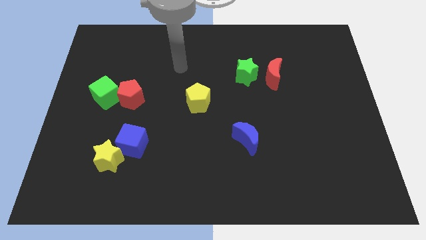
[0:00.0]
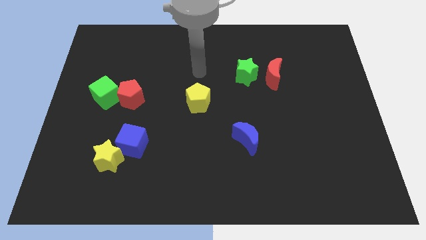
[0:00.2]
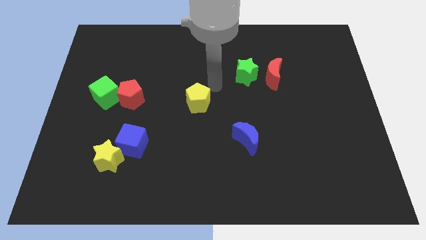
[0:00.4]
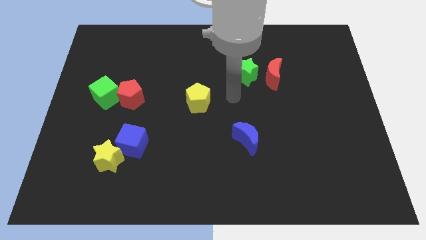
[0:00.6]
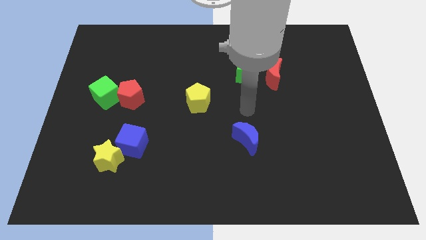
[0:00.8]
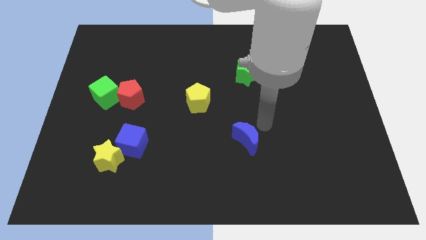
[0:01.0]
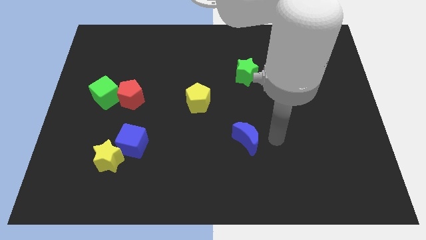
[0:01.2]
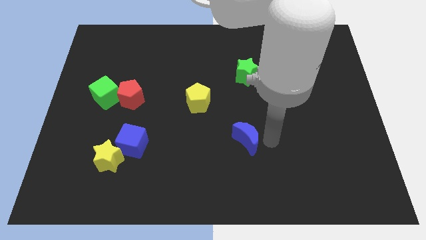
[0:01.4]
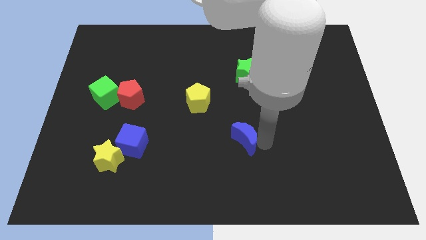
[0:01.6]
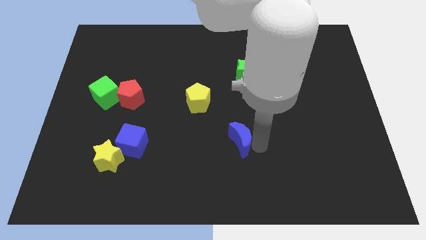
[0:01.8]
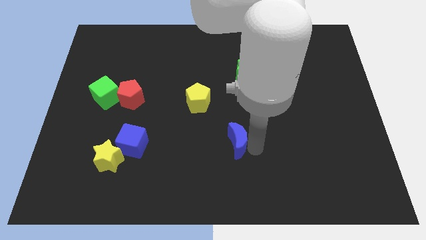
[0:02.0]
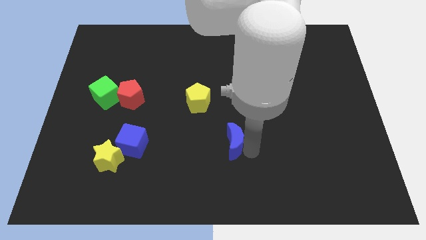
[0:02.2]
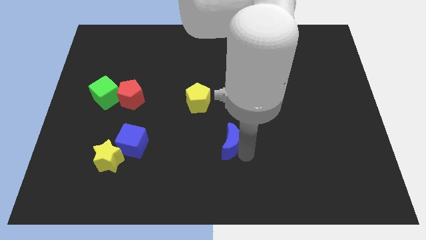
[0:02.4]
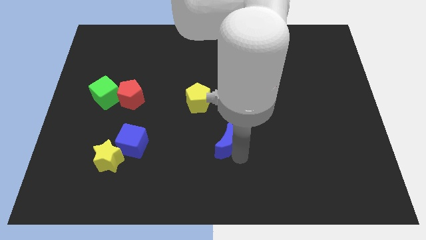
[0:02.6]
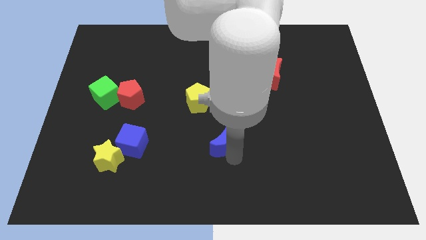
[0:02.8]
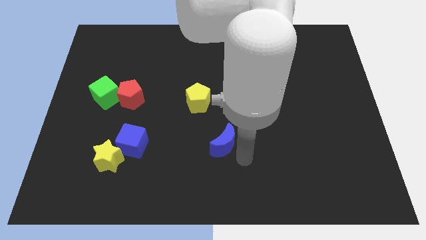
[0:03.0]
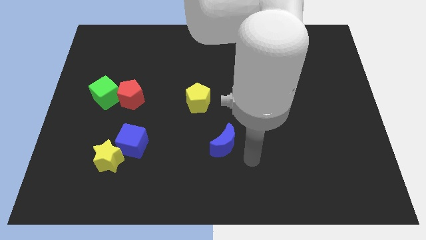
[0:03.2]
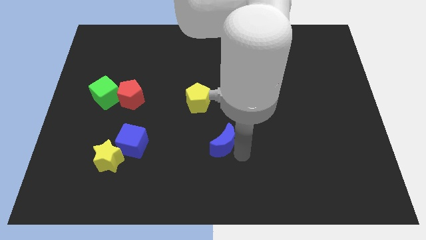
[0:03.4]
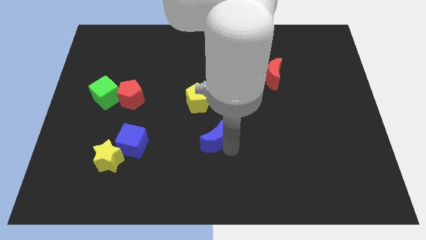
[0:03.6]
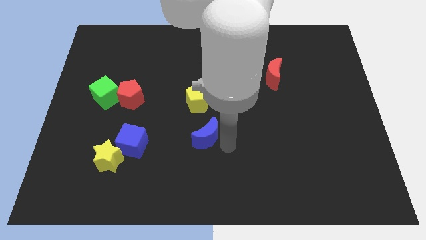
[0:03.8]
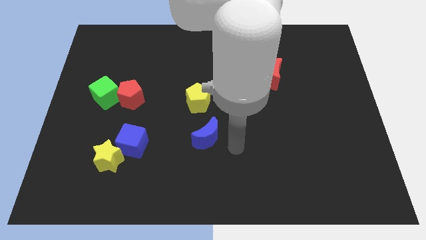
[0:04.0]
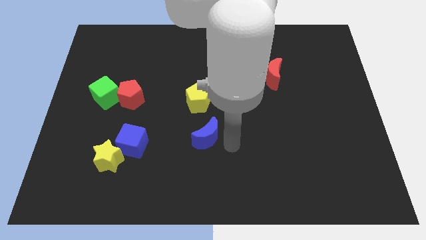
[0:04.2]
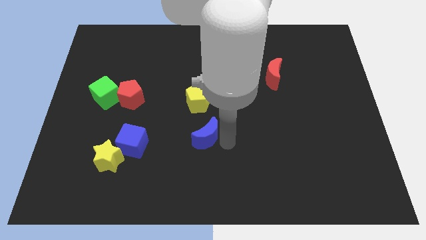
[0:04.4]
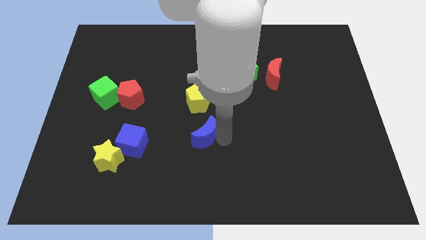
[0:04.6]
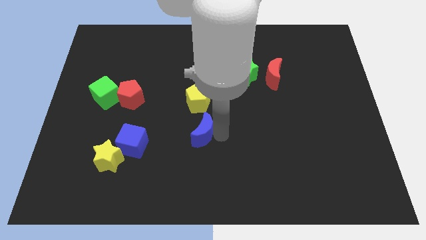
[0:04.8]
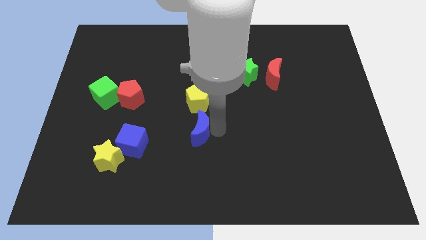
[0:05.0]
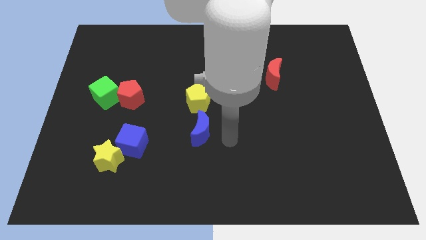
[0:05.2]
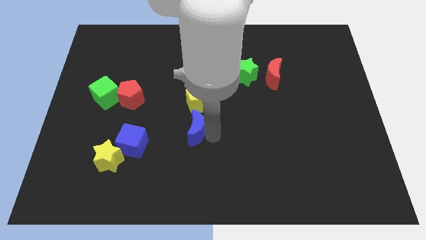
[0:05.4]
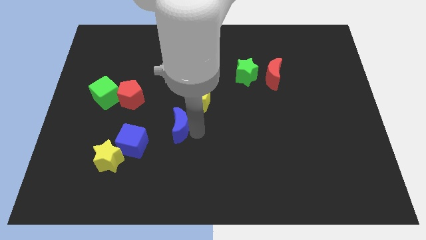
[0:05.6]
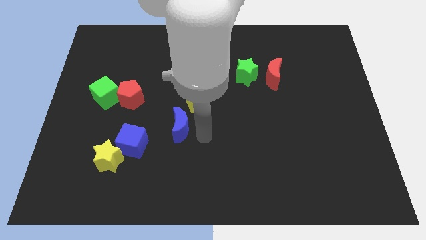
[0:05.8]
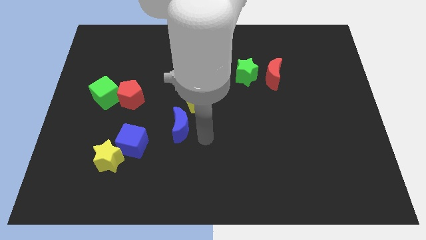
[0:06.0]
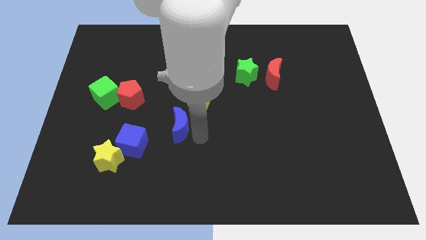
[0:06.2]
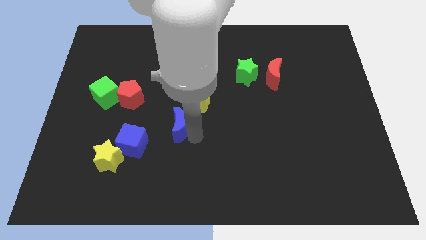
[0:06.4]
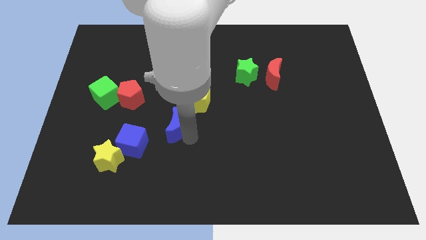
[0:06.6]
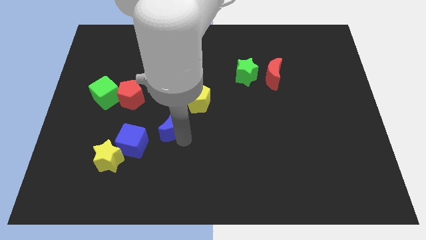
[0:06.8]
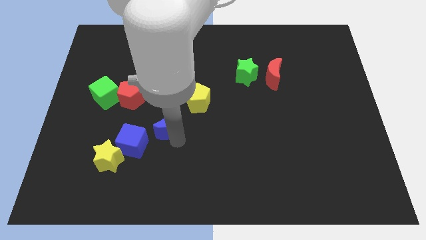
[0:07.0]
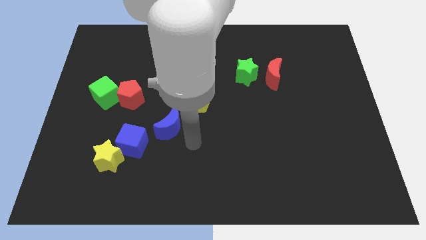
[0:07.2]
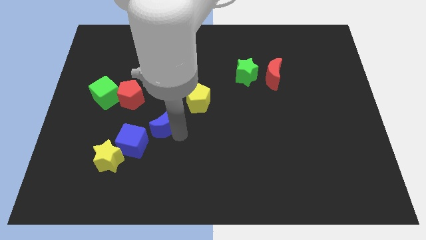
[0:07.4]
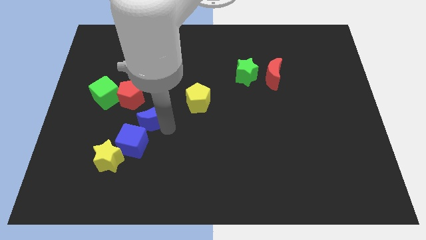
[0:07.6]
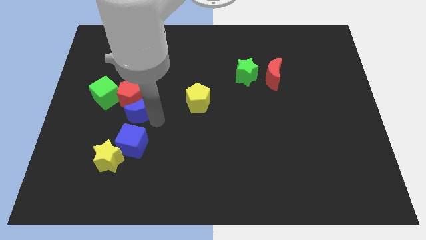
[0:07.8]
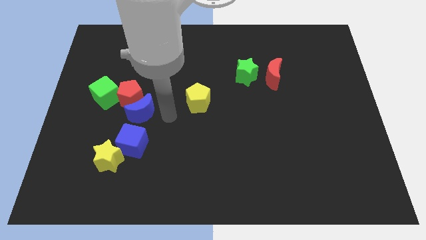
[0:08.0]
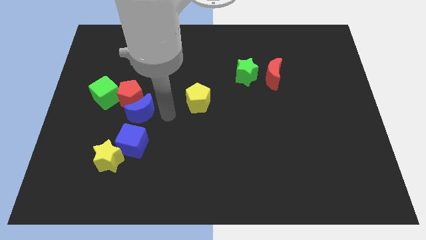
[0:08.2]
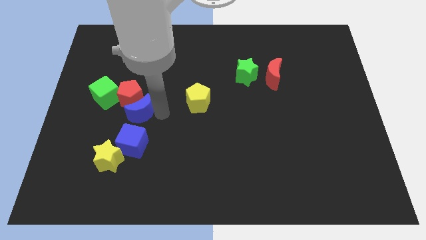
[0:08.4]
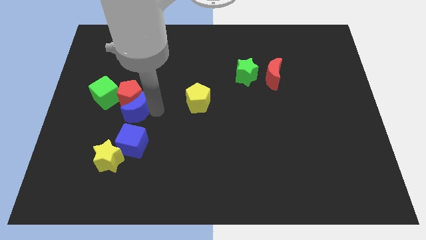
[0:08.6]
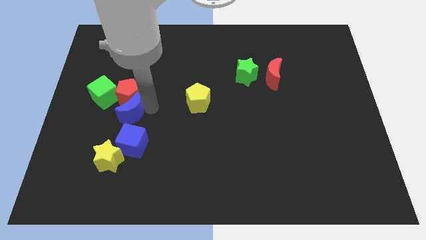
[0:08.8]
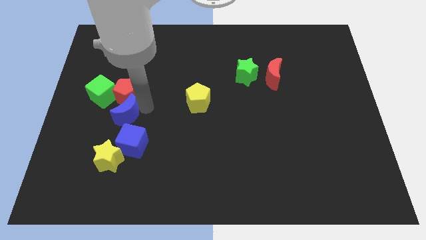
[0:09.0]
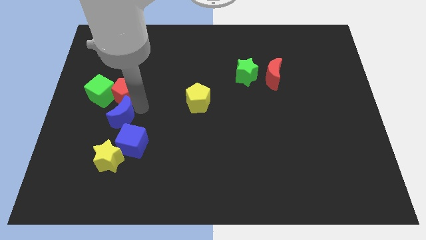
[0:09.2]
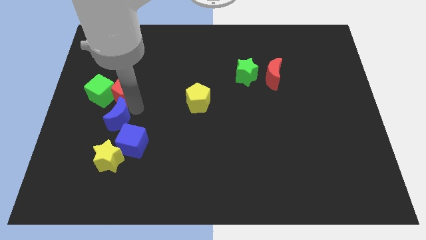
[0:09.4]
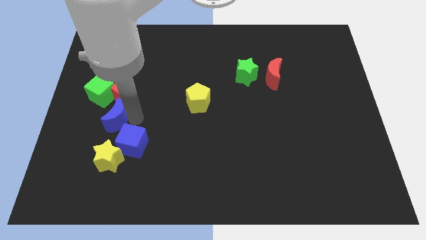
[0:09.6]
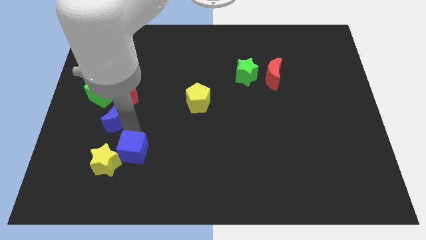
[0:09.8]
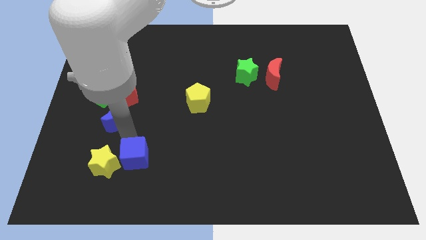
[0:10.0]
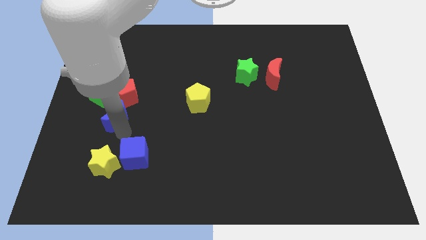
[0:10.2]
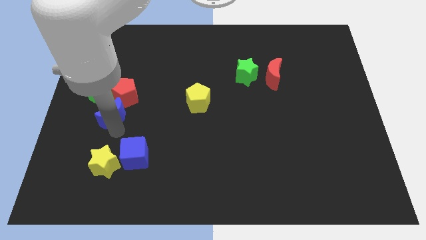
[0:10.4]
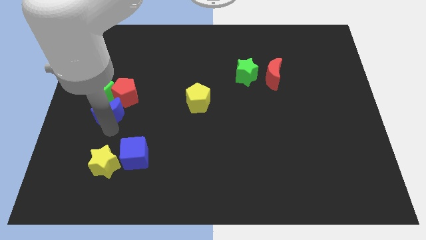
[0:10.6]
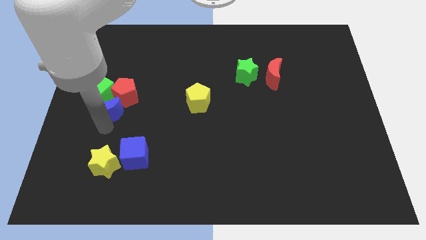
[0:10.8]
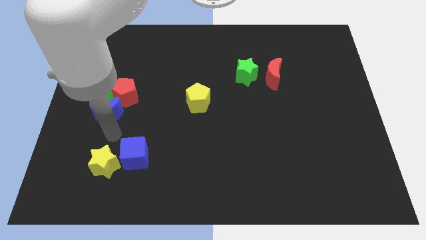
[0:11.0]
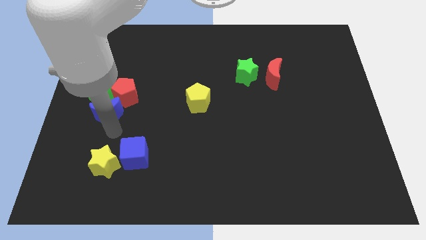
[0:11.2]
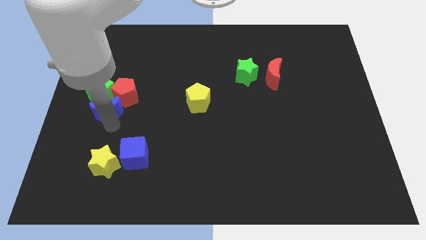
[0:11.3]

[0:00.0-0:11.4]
move the blue moon close to the green cube

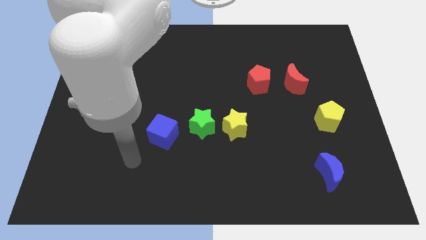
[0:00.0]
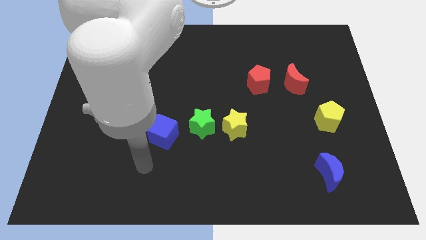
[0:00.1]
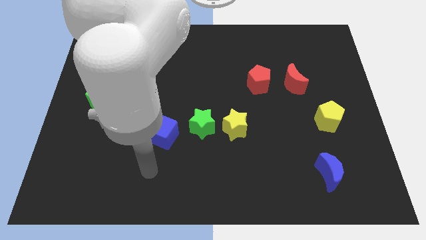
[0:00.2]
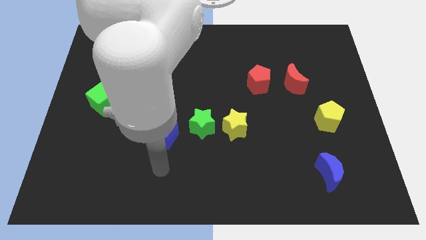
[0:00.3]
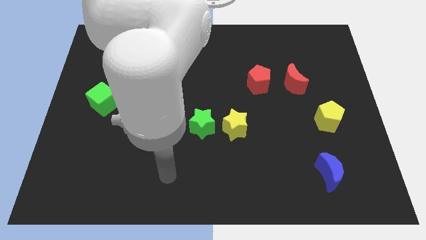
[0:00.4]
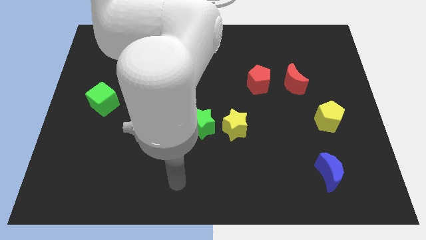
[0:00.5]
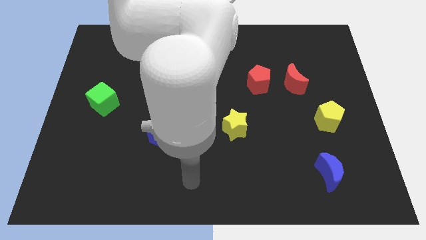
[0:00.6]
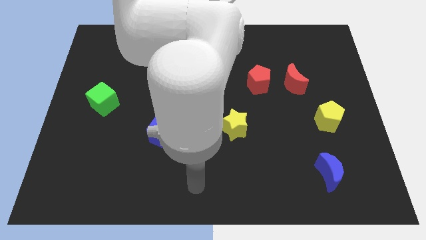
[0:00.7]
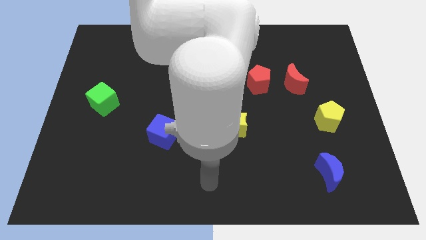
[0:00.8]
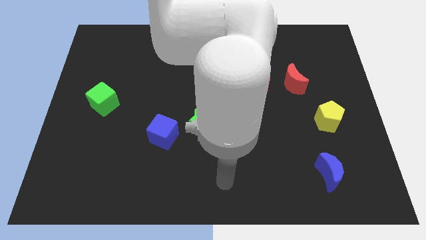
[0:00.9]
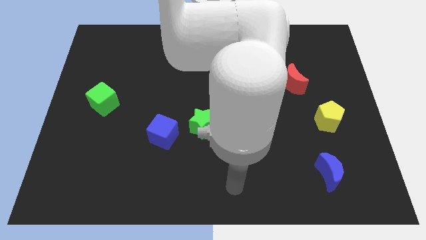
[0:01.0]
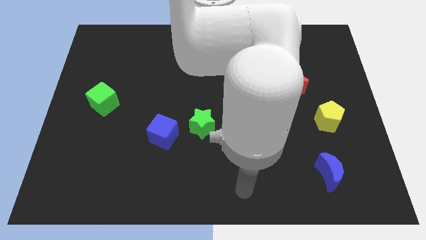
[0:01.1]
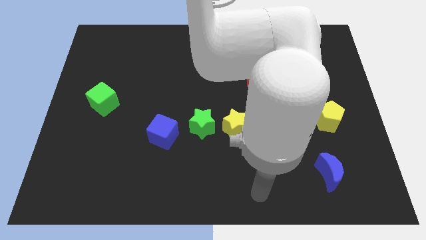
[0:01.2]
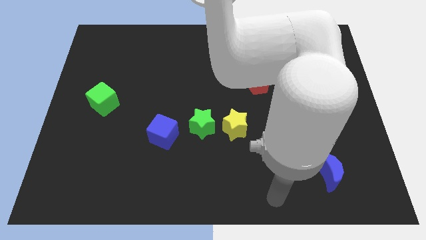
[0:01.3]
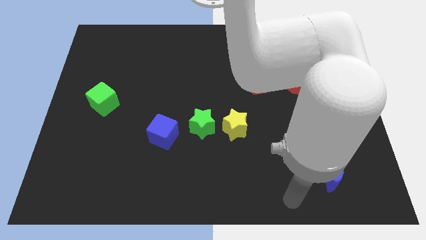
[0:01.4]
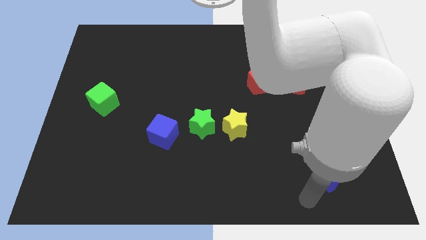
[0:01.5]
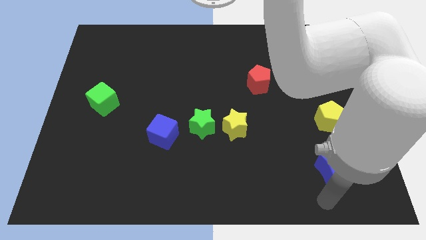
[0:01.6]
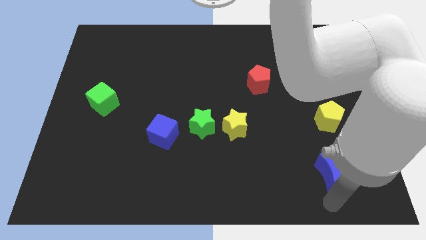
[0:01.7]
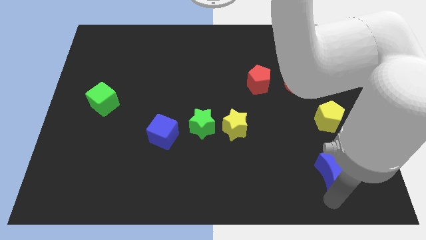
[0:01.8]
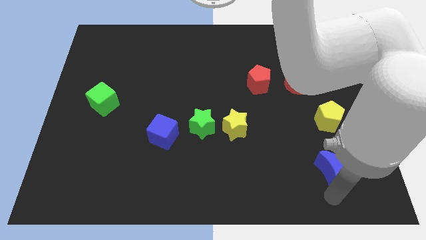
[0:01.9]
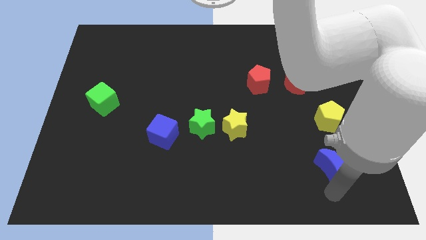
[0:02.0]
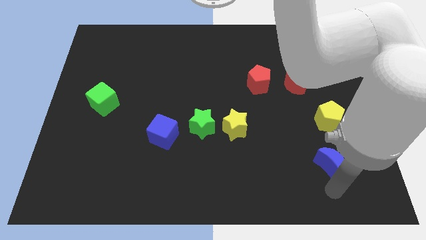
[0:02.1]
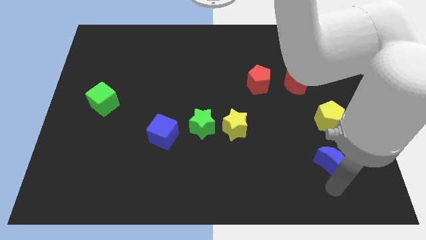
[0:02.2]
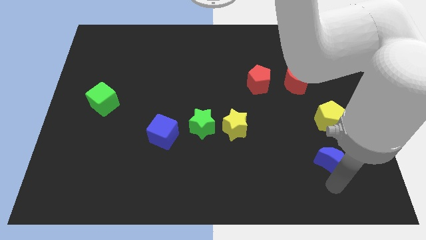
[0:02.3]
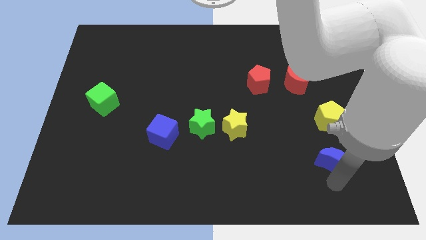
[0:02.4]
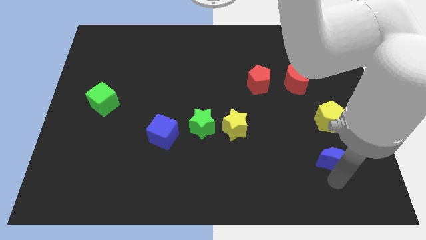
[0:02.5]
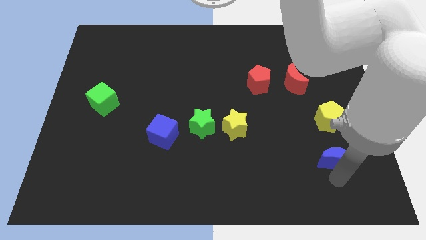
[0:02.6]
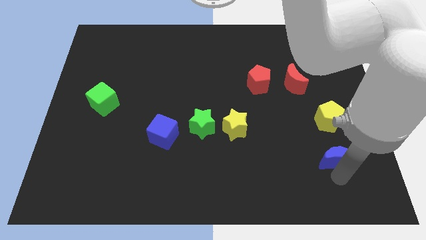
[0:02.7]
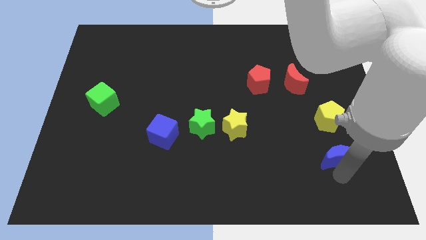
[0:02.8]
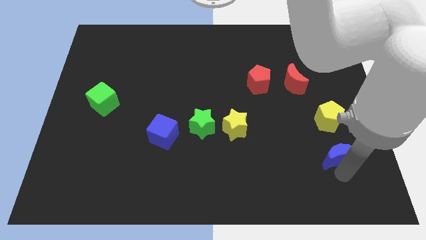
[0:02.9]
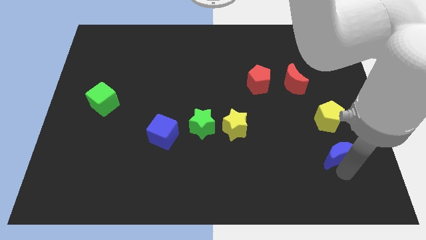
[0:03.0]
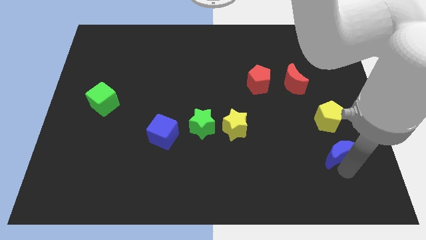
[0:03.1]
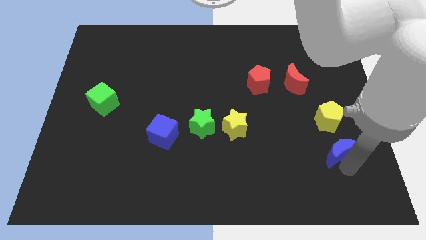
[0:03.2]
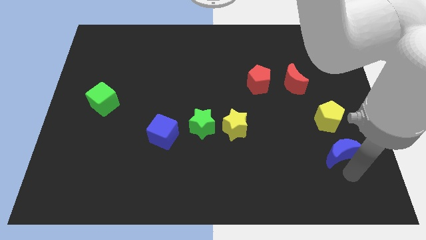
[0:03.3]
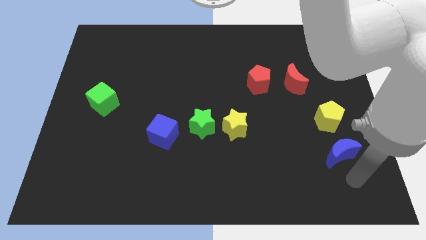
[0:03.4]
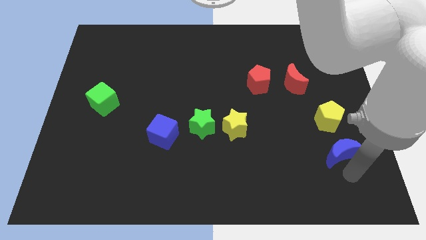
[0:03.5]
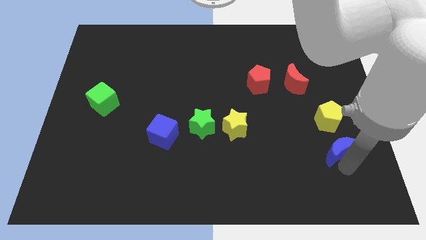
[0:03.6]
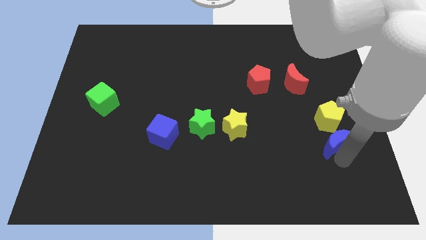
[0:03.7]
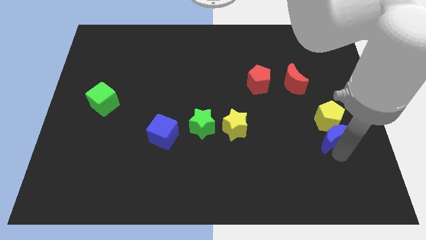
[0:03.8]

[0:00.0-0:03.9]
move the blue moon towards the yellow pentagon
